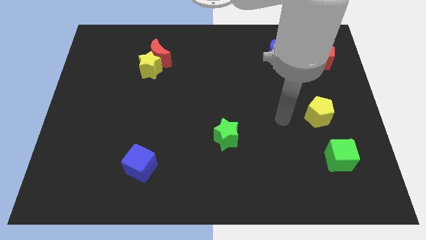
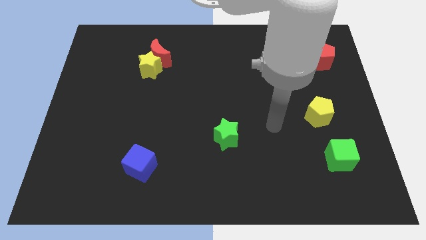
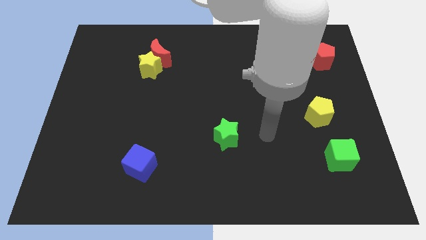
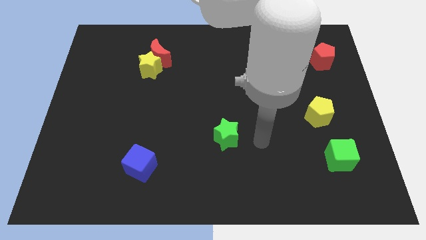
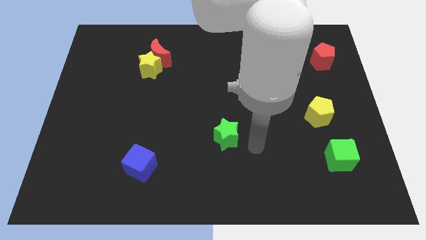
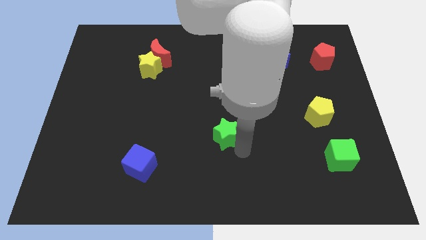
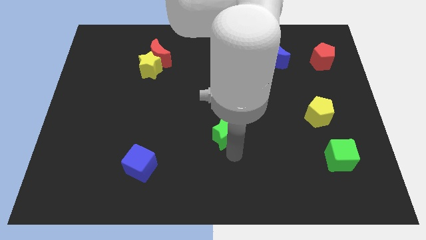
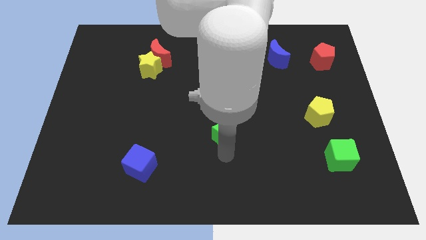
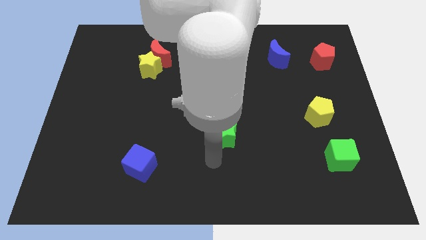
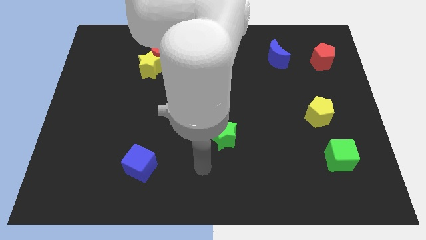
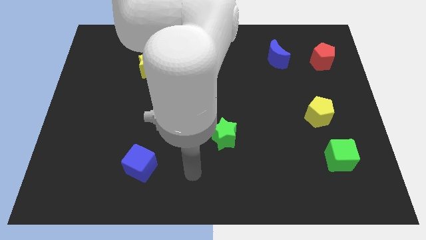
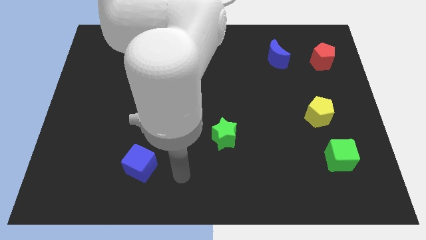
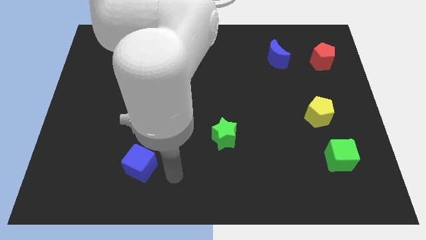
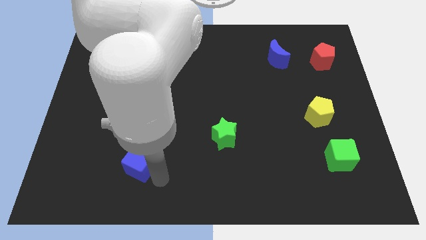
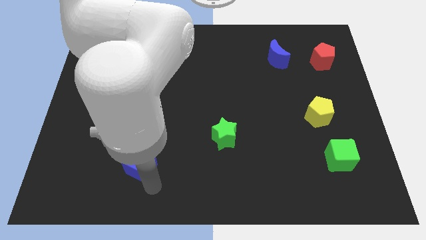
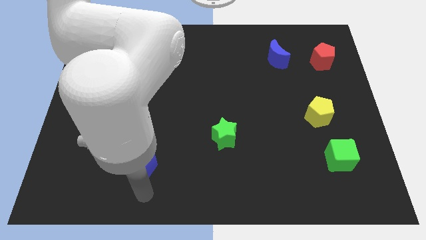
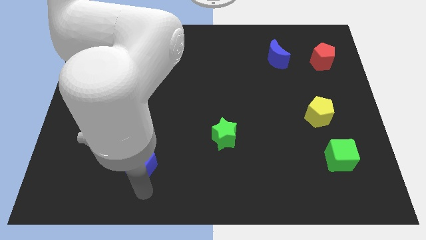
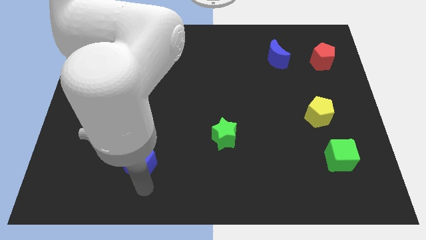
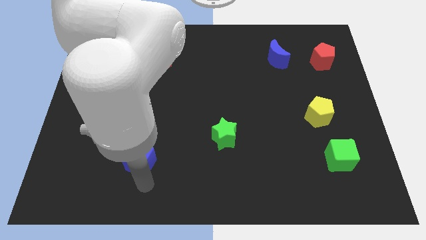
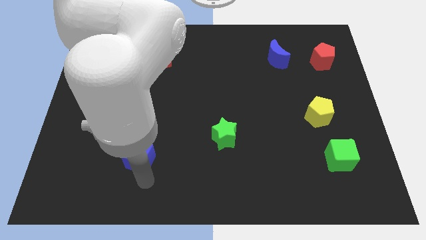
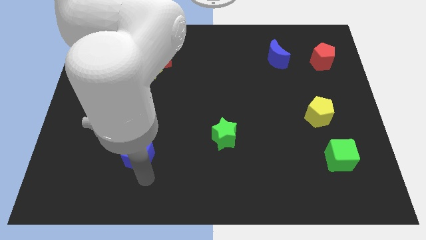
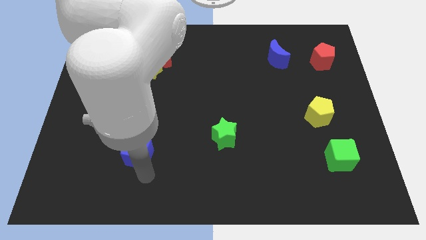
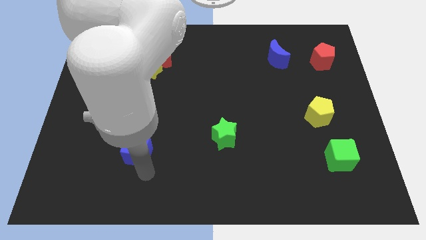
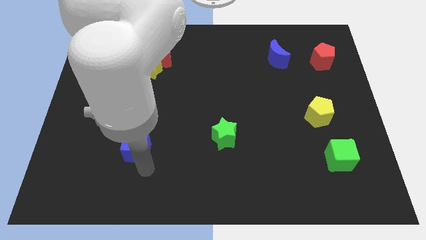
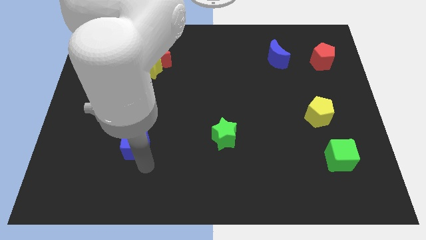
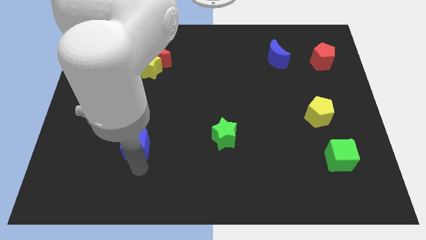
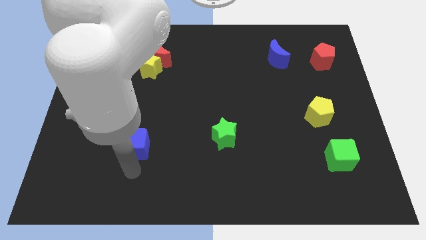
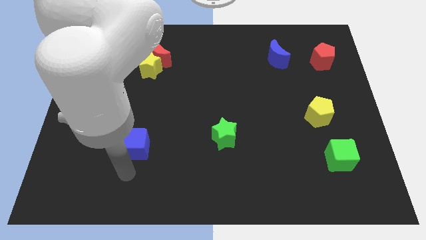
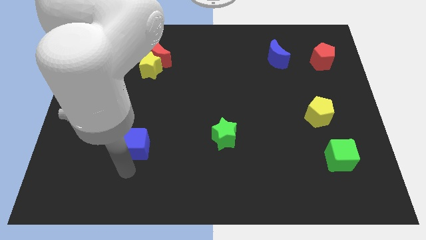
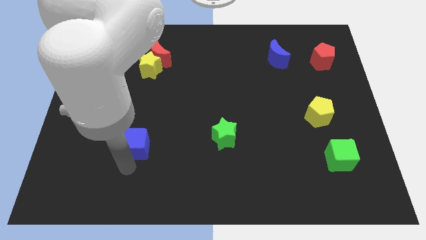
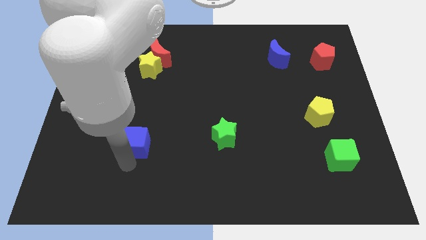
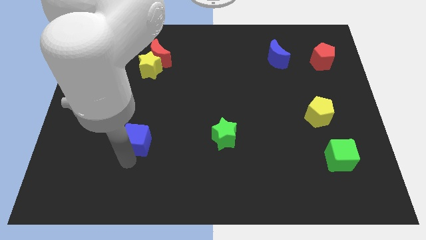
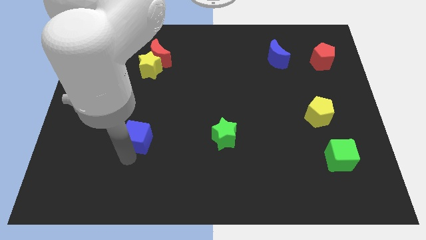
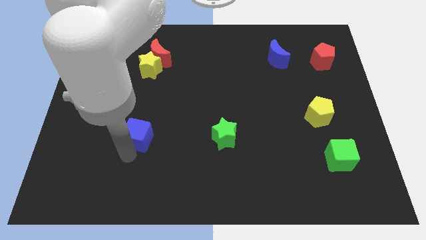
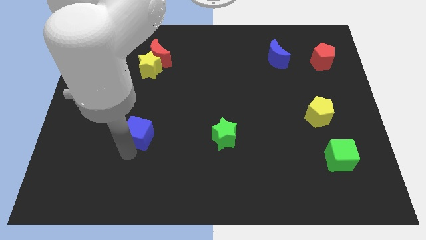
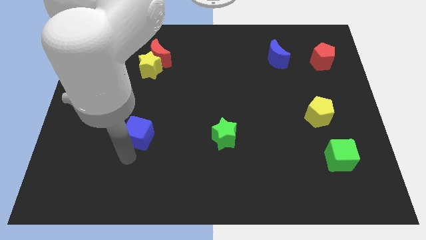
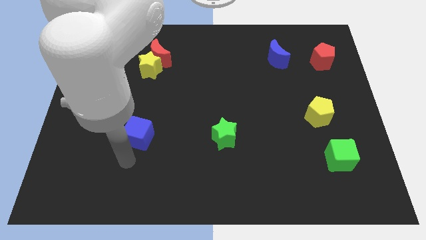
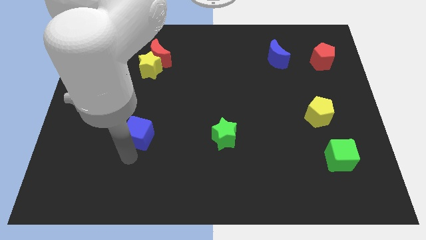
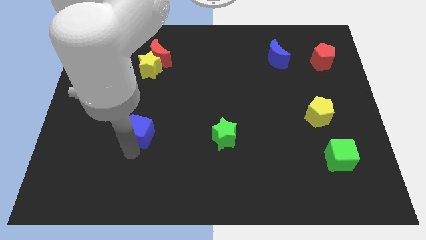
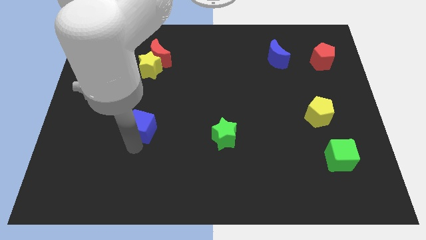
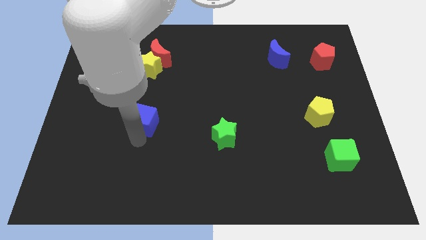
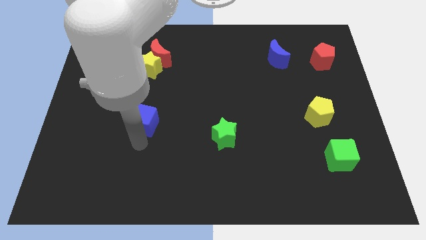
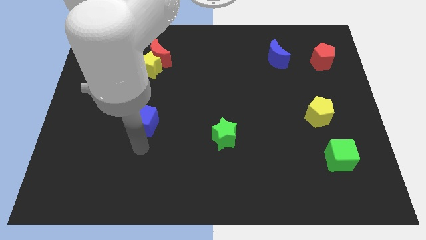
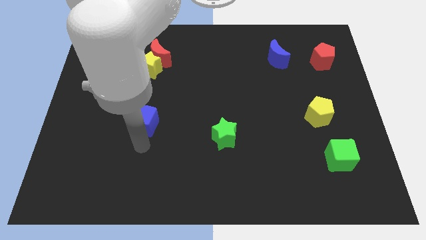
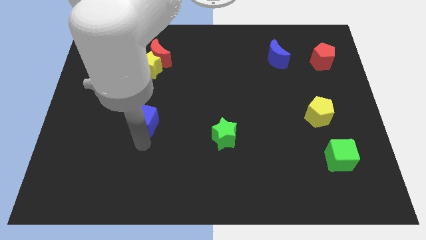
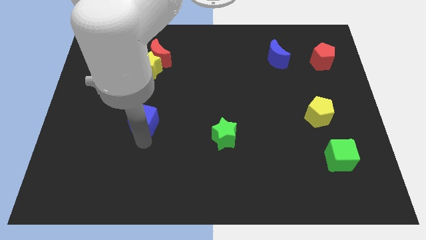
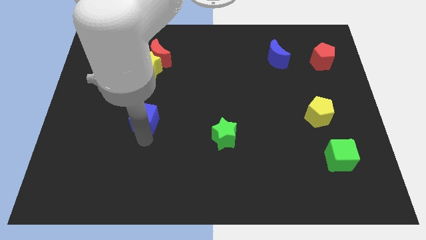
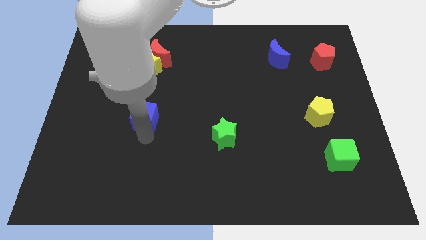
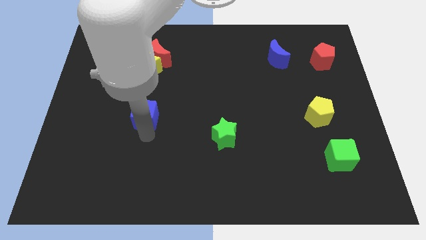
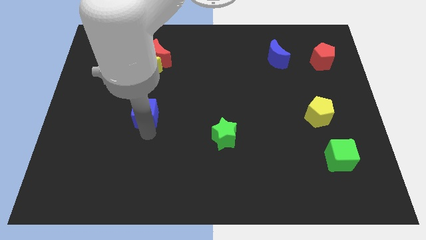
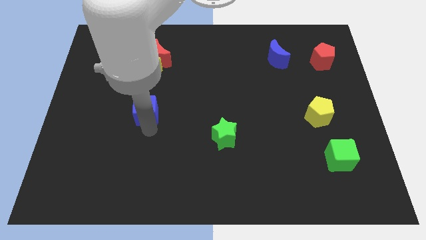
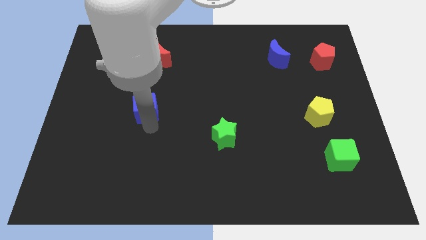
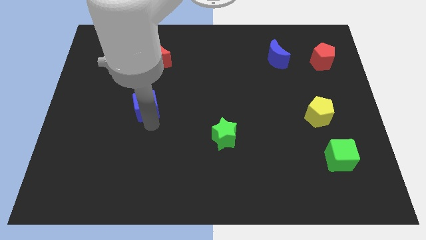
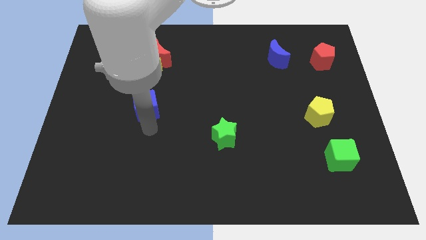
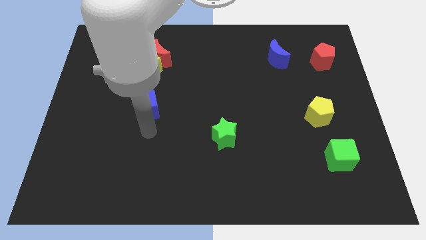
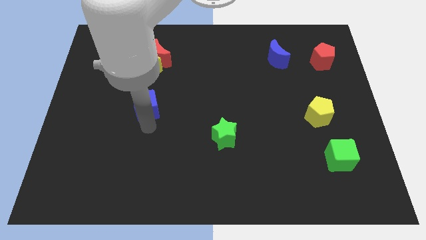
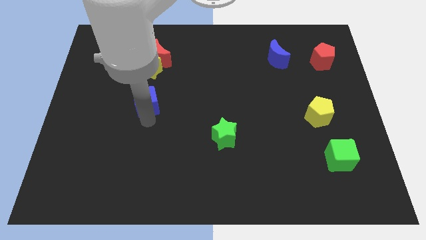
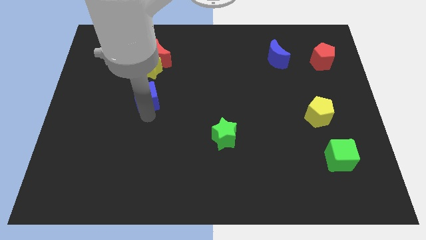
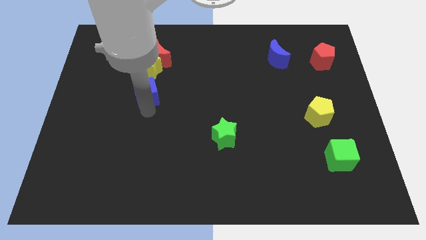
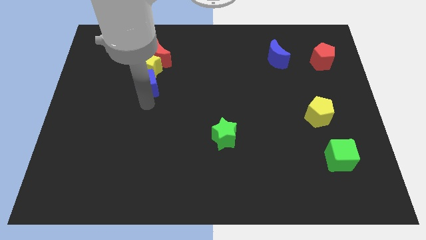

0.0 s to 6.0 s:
put the blue cube close to the yellow star

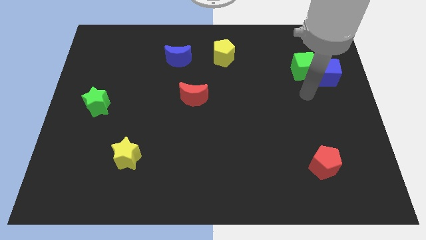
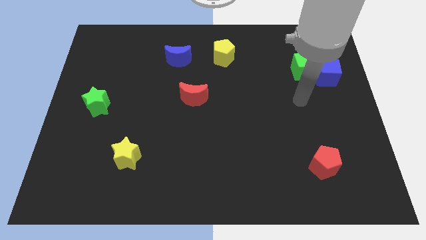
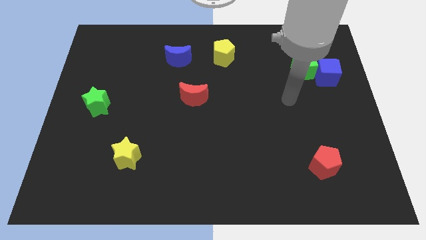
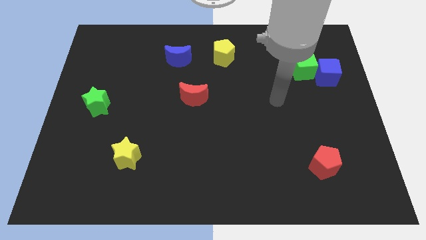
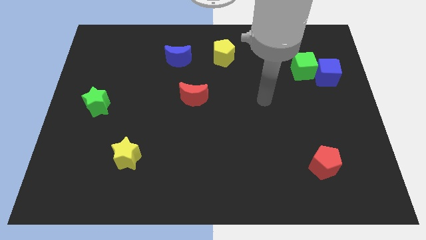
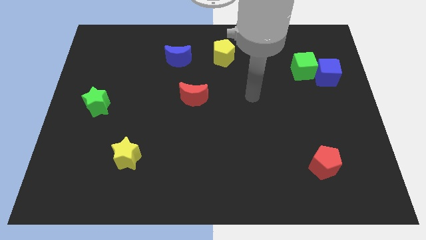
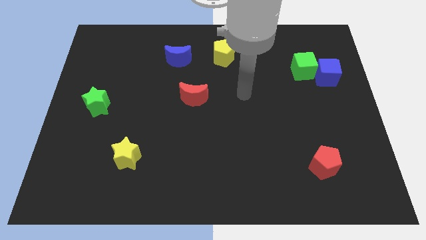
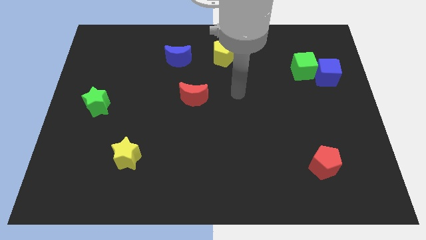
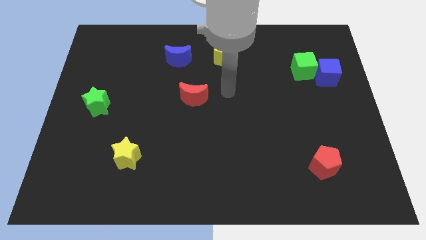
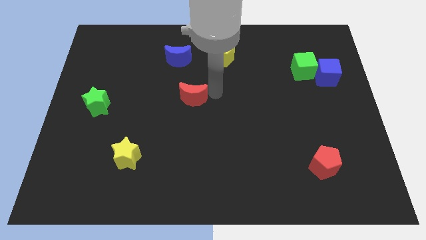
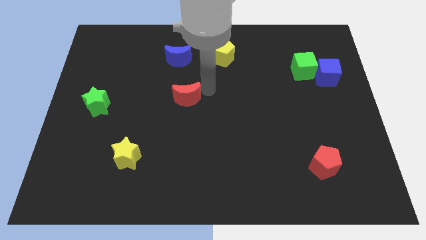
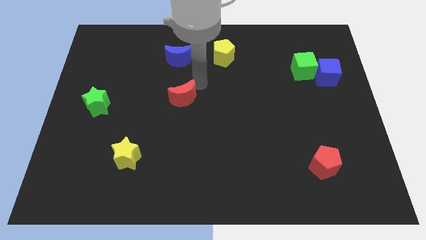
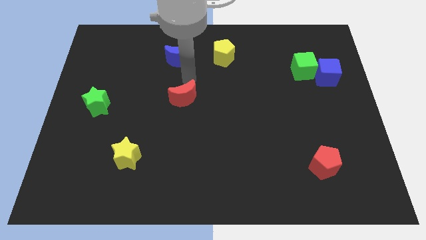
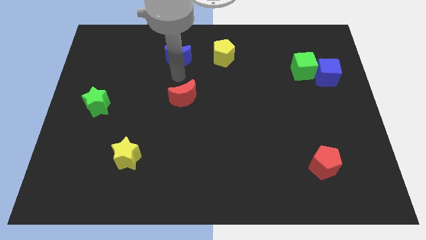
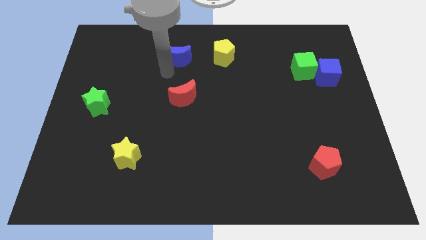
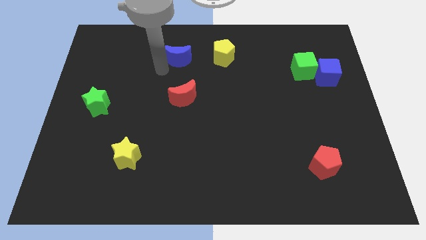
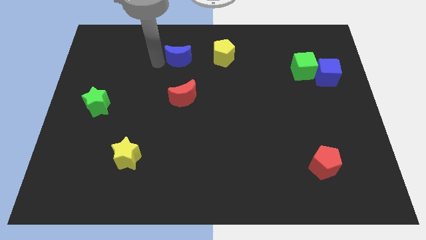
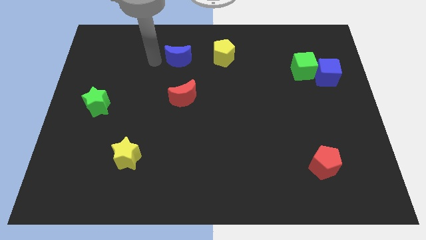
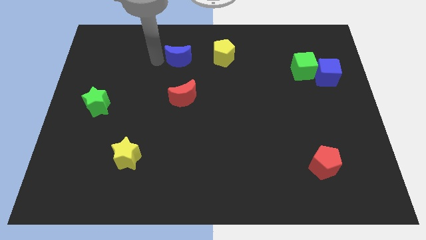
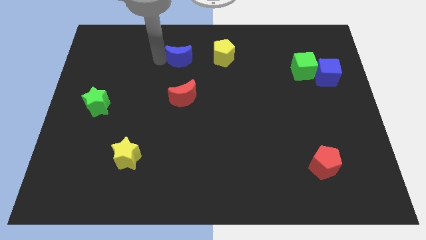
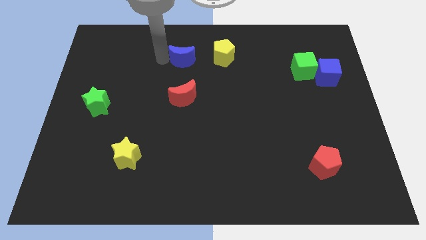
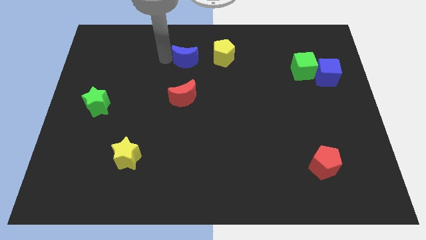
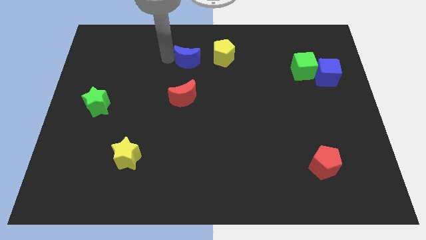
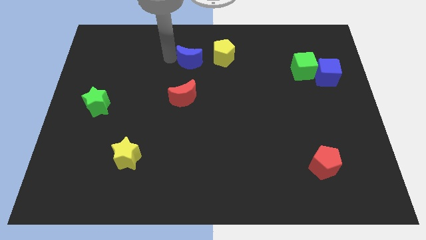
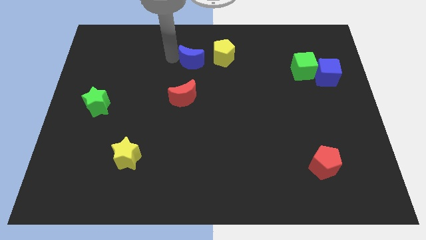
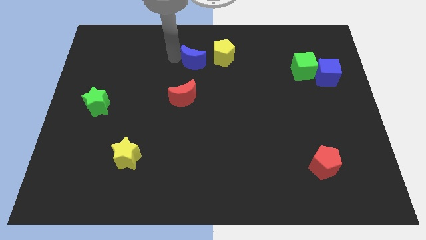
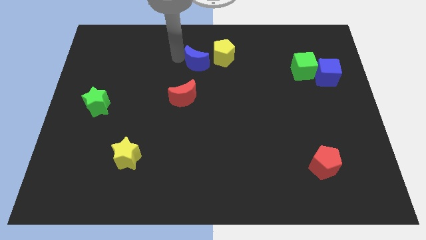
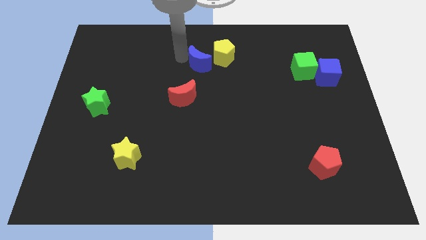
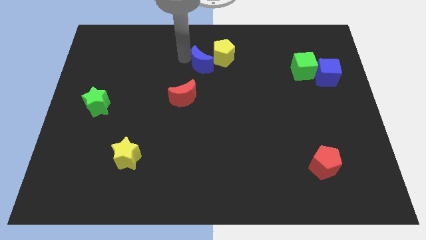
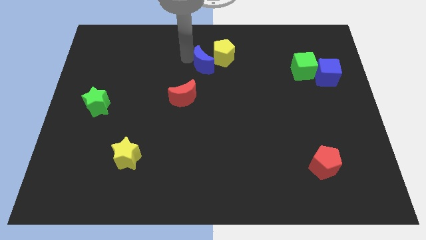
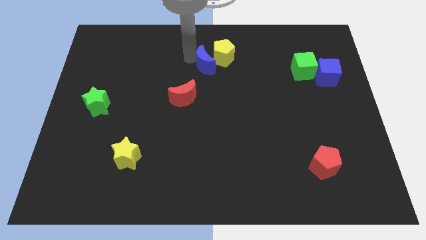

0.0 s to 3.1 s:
move the blue moon close to the yellow pentagon
